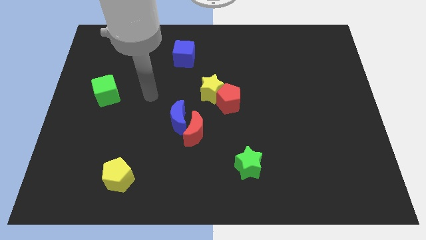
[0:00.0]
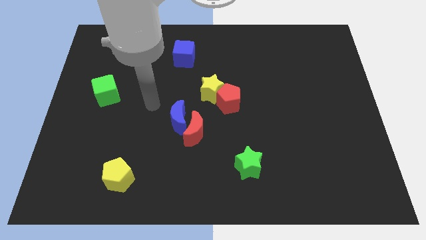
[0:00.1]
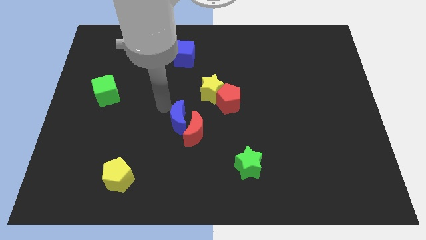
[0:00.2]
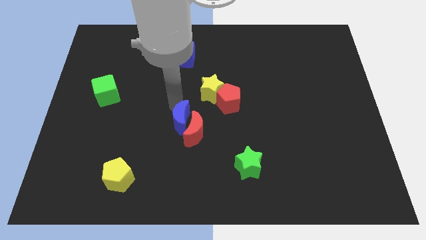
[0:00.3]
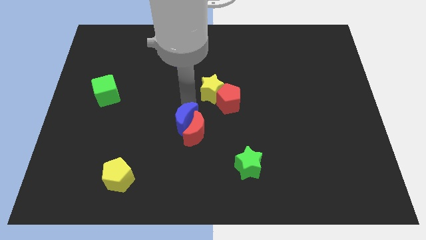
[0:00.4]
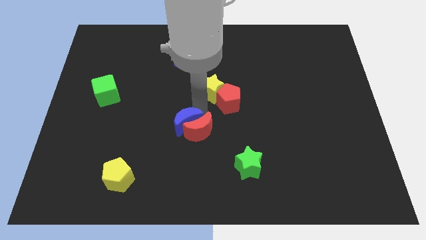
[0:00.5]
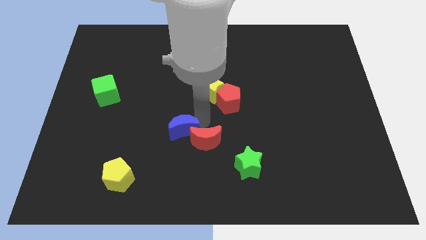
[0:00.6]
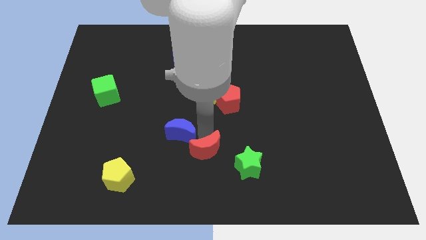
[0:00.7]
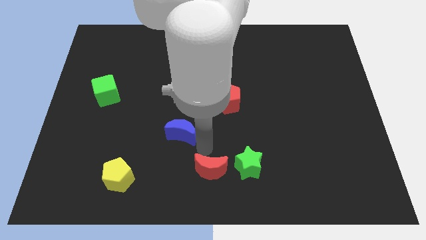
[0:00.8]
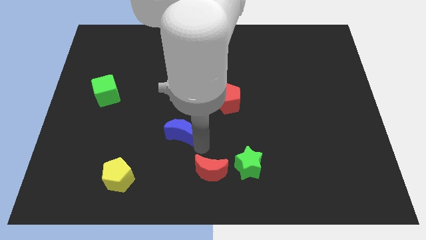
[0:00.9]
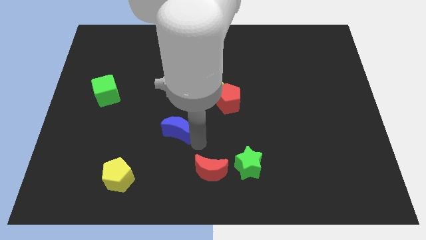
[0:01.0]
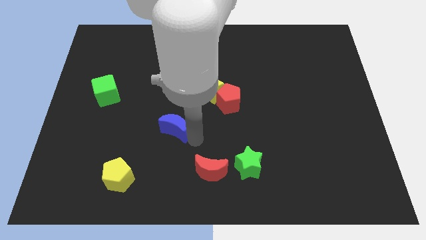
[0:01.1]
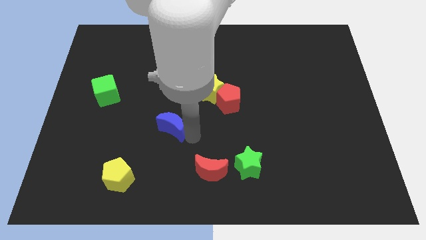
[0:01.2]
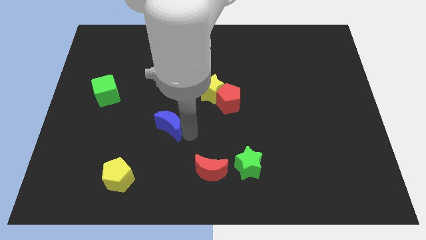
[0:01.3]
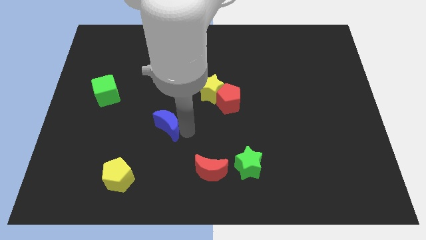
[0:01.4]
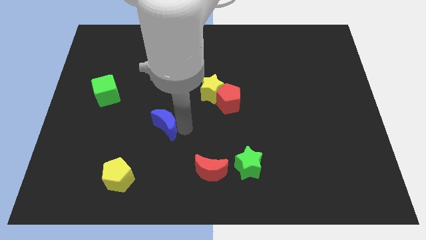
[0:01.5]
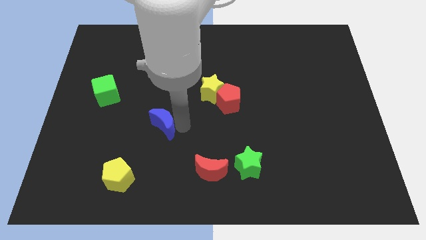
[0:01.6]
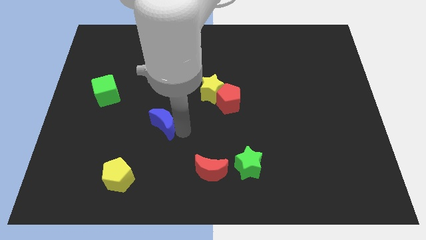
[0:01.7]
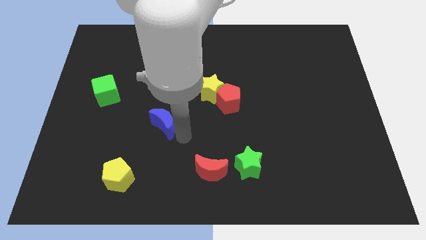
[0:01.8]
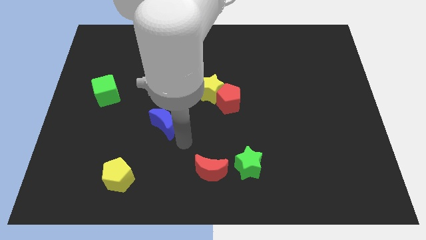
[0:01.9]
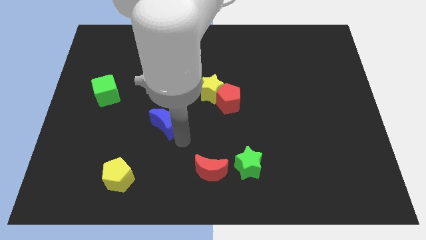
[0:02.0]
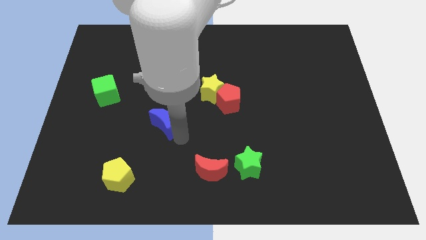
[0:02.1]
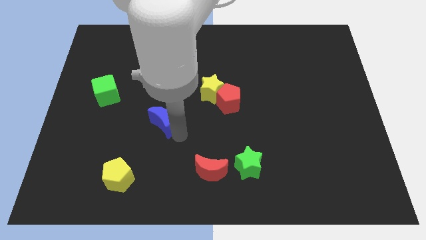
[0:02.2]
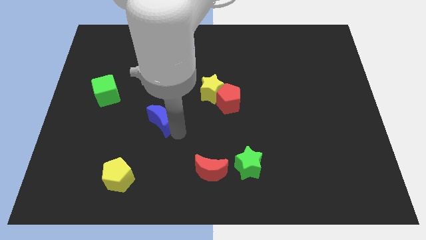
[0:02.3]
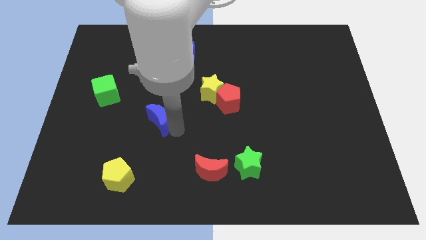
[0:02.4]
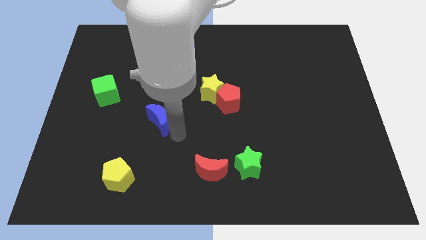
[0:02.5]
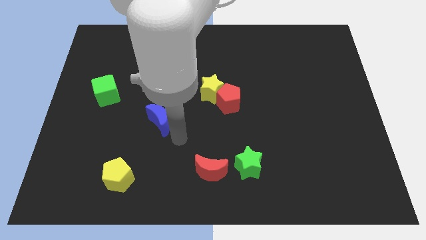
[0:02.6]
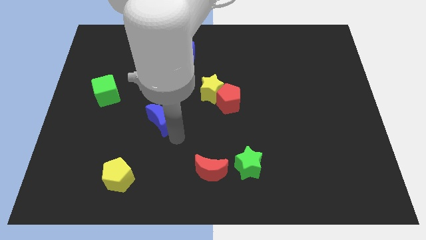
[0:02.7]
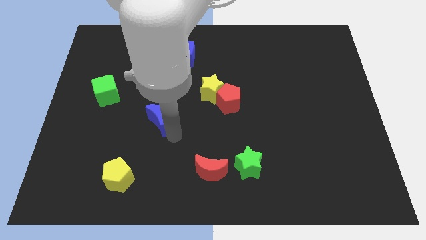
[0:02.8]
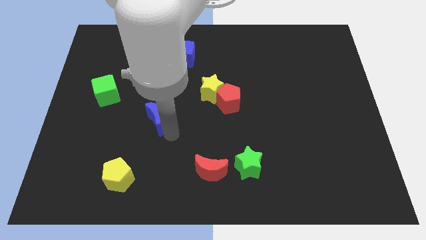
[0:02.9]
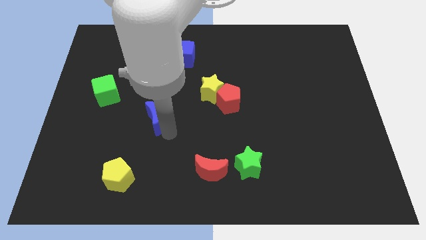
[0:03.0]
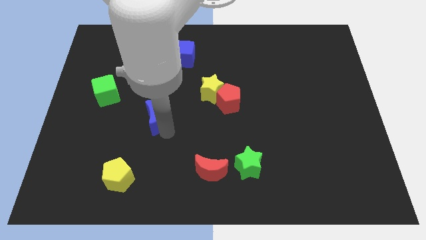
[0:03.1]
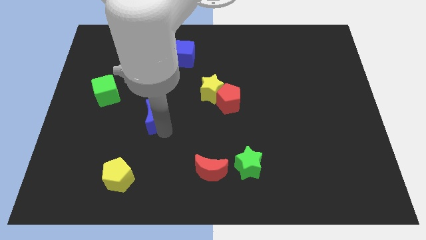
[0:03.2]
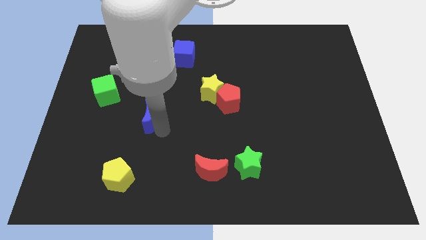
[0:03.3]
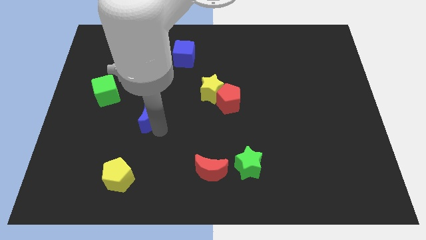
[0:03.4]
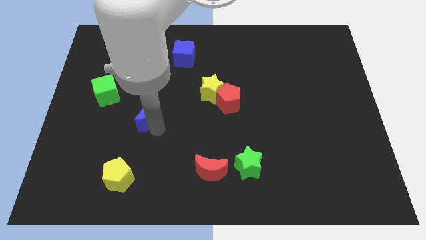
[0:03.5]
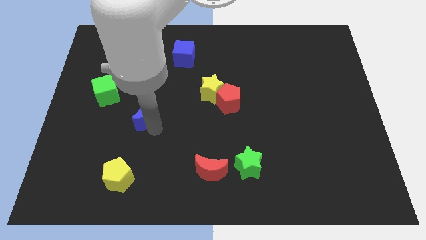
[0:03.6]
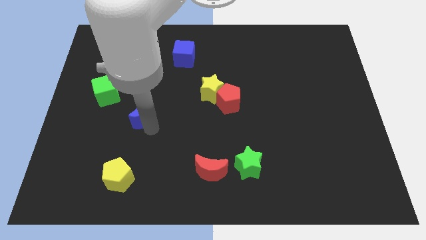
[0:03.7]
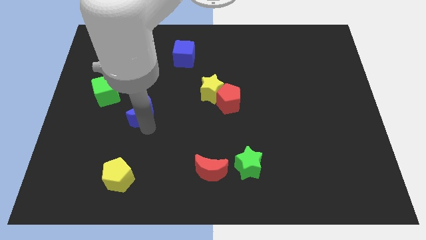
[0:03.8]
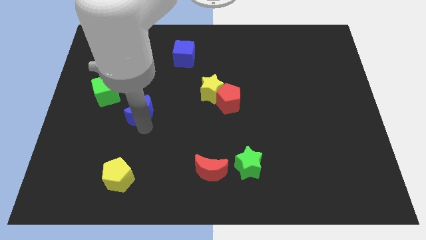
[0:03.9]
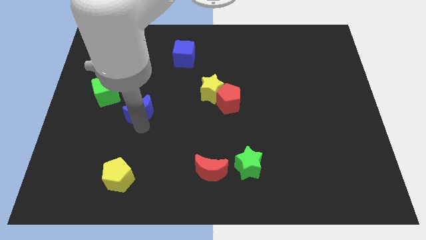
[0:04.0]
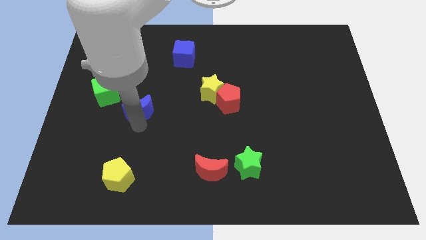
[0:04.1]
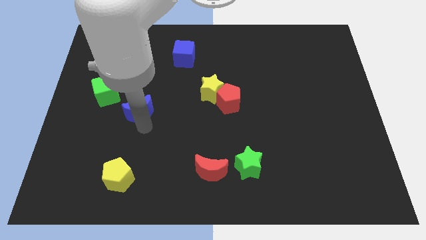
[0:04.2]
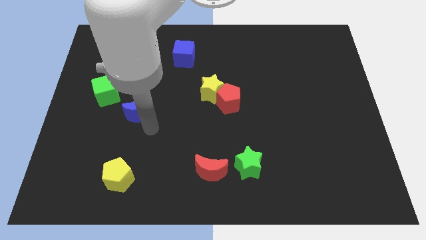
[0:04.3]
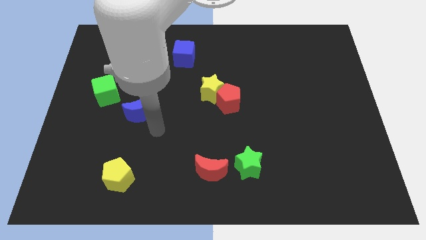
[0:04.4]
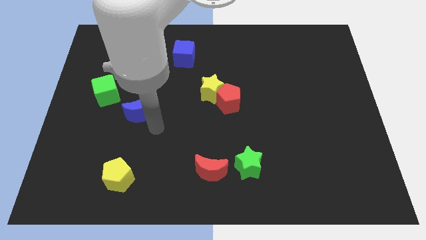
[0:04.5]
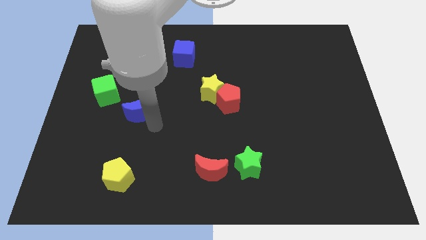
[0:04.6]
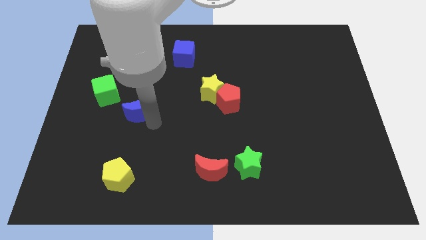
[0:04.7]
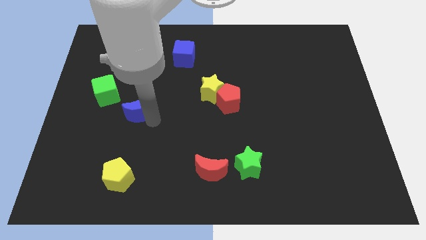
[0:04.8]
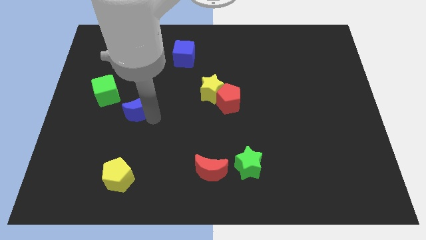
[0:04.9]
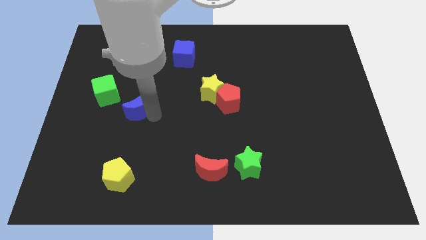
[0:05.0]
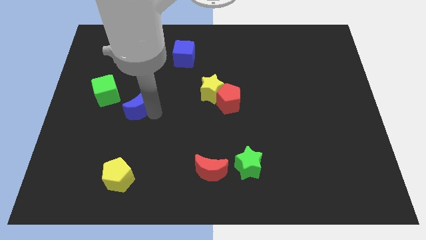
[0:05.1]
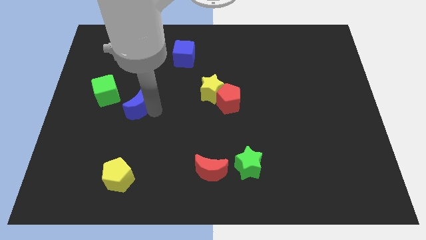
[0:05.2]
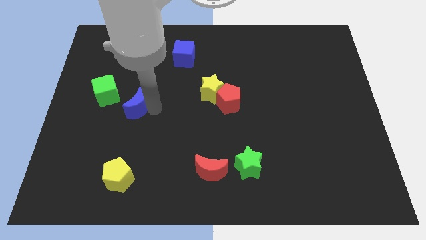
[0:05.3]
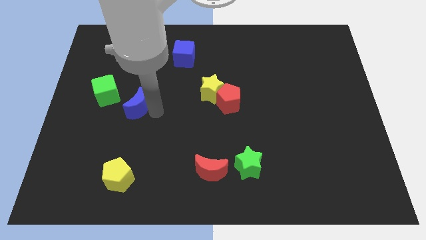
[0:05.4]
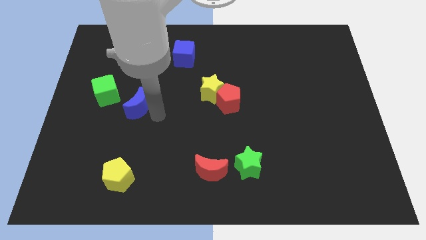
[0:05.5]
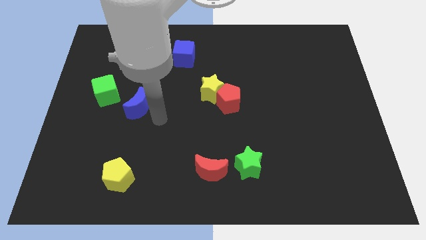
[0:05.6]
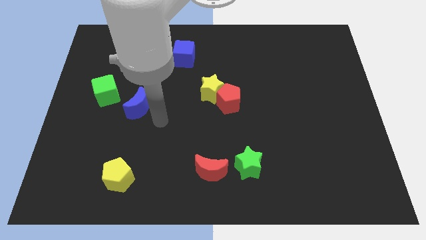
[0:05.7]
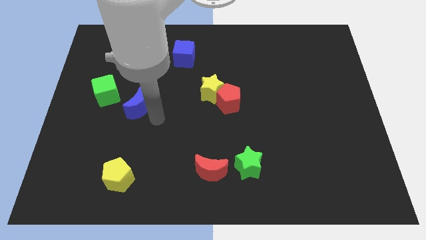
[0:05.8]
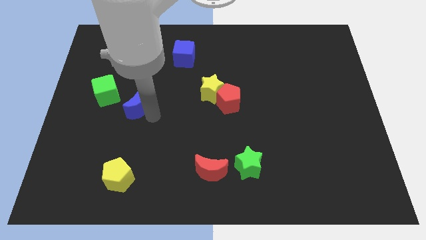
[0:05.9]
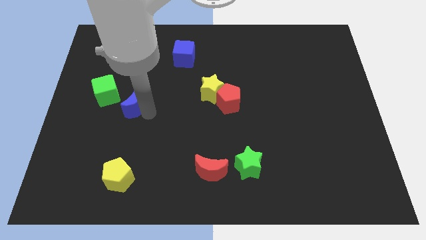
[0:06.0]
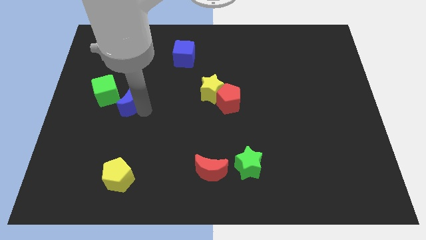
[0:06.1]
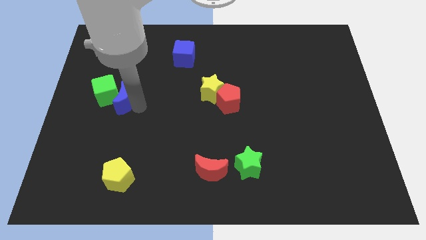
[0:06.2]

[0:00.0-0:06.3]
move the blue moon close to the green cube

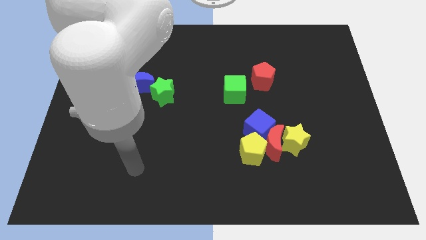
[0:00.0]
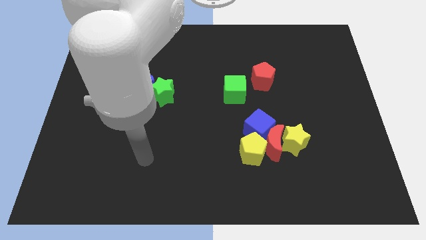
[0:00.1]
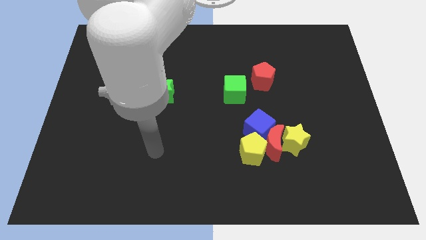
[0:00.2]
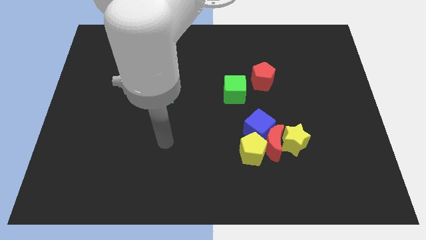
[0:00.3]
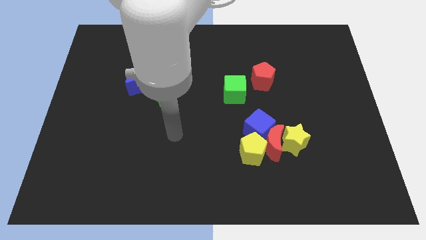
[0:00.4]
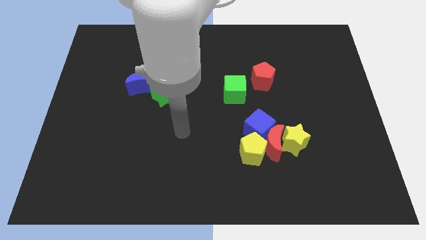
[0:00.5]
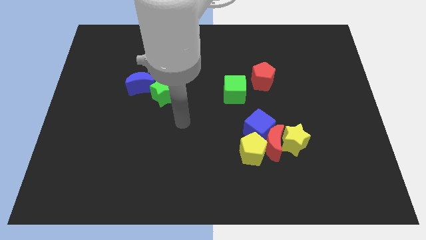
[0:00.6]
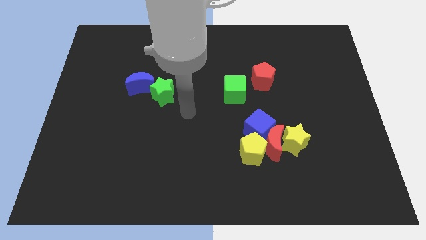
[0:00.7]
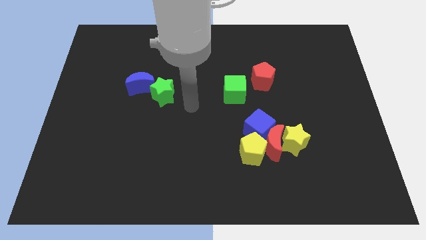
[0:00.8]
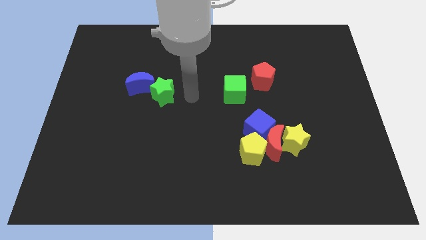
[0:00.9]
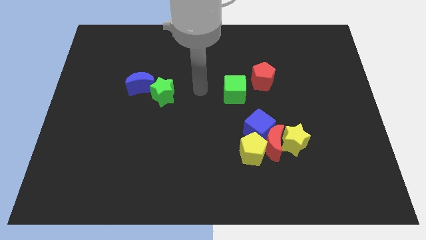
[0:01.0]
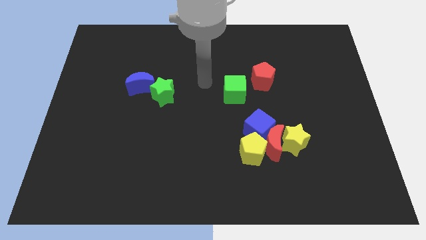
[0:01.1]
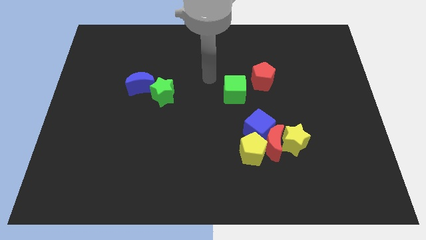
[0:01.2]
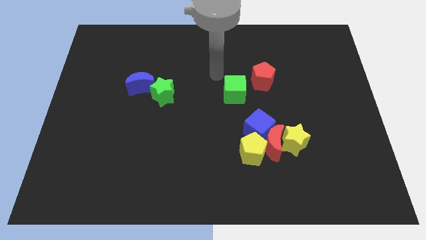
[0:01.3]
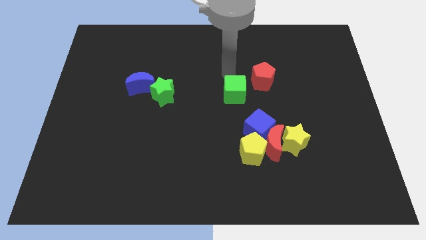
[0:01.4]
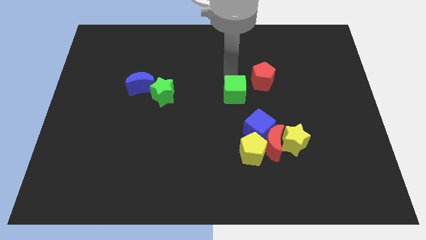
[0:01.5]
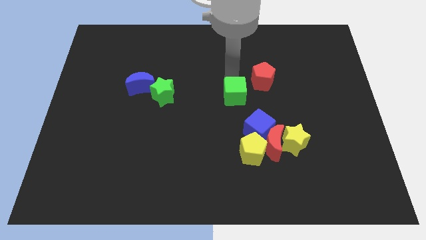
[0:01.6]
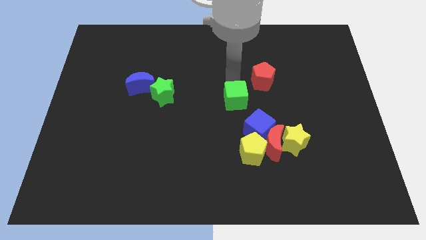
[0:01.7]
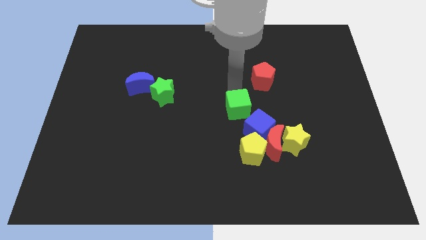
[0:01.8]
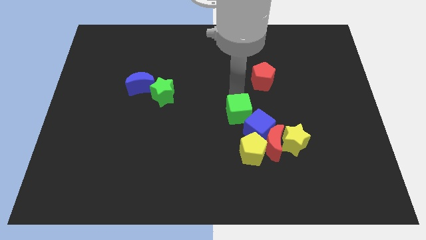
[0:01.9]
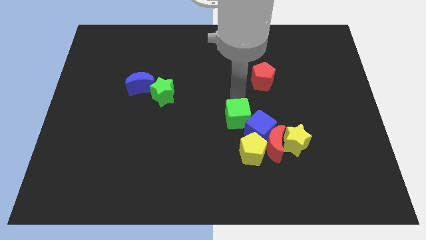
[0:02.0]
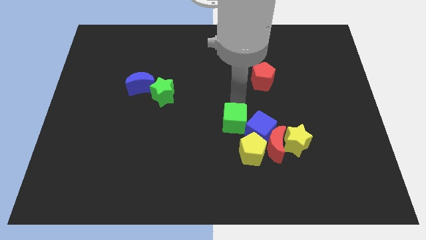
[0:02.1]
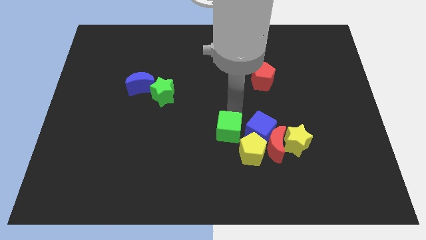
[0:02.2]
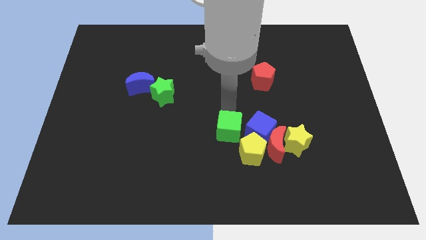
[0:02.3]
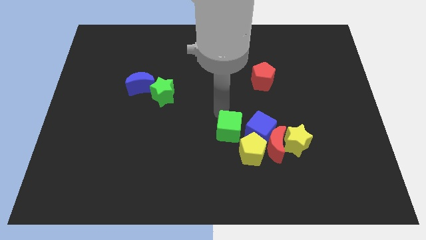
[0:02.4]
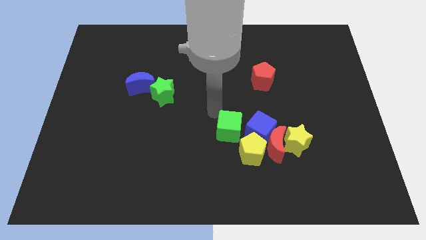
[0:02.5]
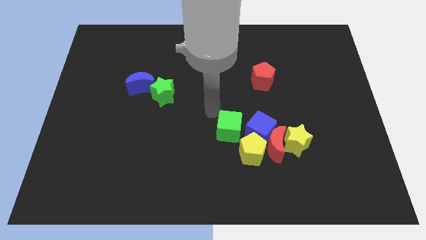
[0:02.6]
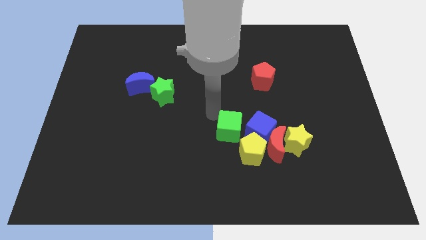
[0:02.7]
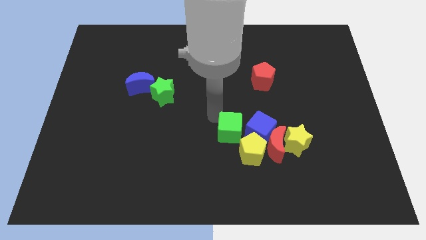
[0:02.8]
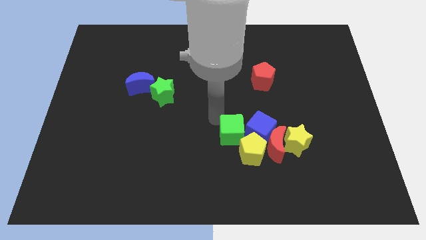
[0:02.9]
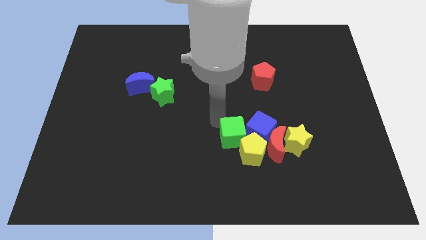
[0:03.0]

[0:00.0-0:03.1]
move the green cube to the yellow pentagon
